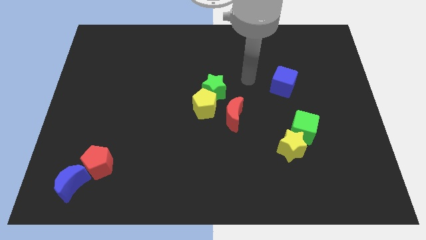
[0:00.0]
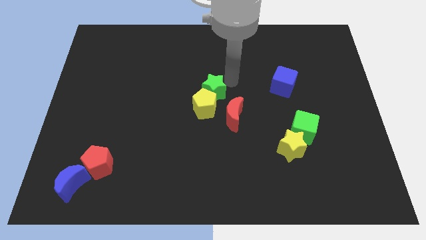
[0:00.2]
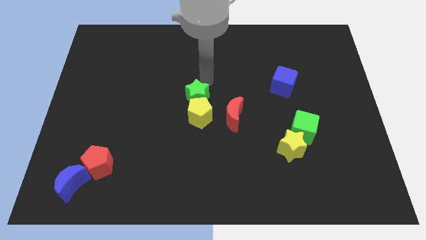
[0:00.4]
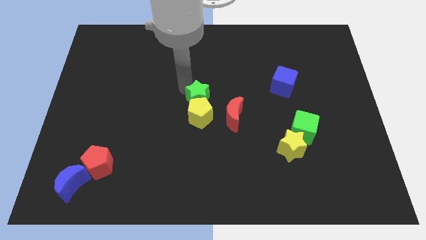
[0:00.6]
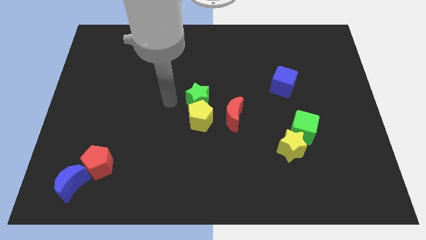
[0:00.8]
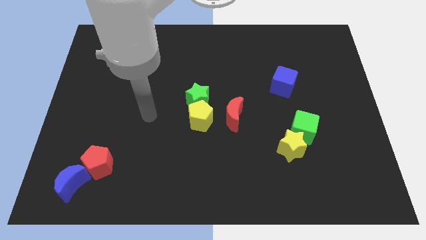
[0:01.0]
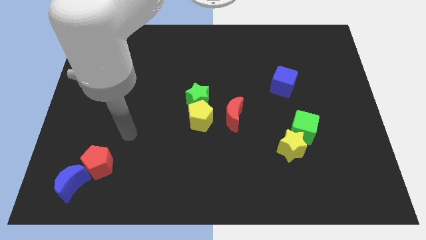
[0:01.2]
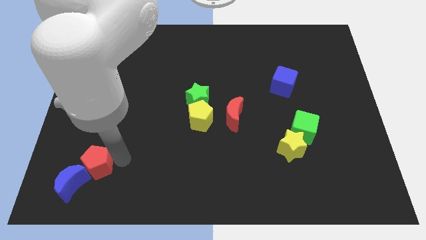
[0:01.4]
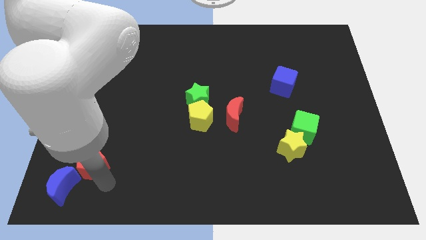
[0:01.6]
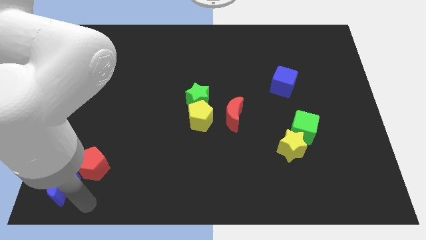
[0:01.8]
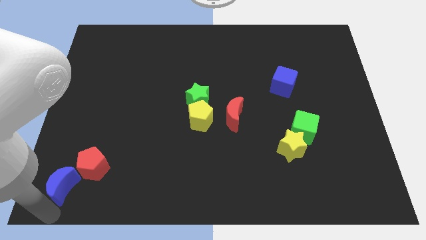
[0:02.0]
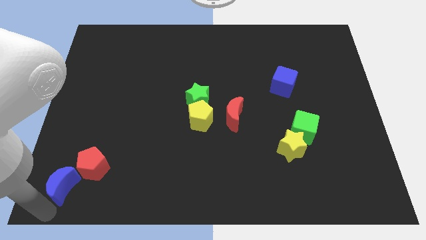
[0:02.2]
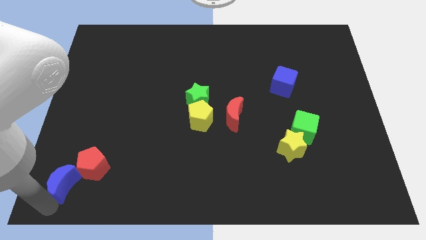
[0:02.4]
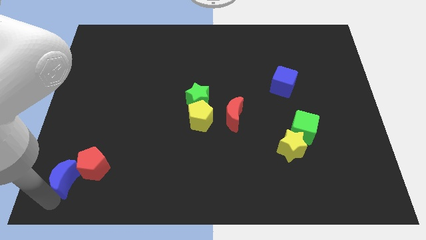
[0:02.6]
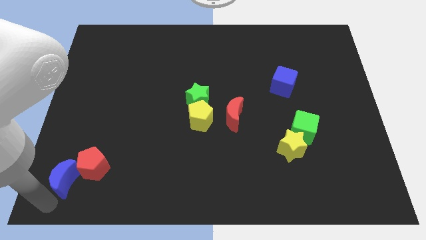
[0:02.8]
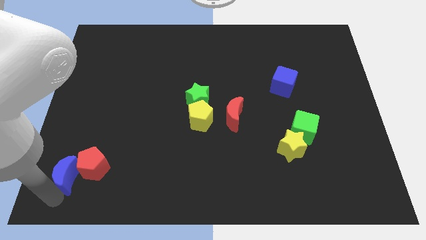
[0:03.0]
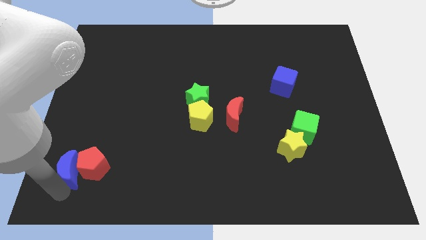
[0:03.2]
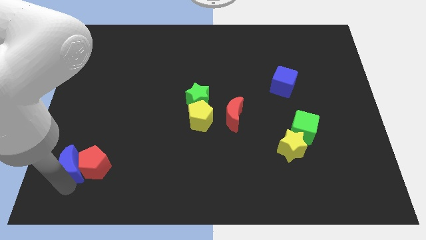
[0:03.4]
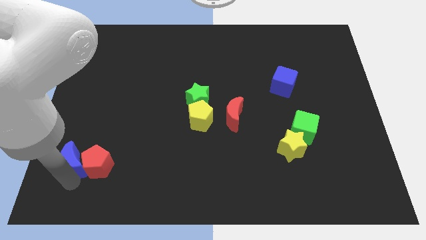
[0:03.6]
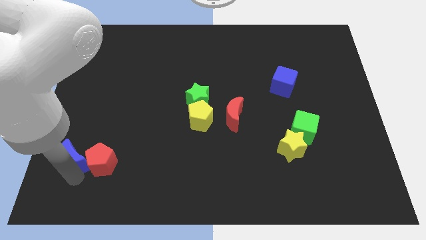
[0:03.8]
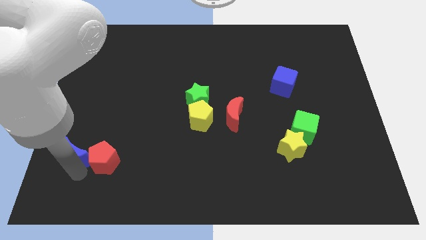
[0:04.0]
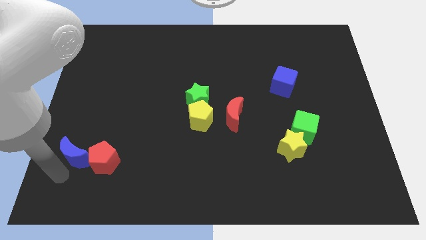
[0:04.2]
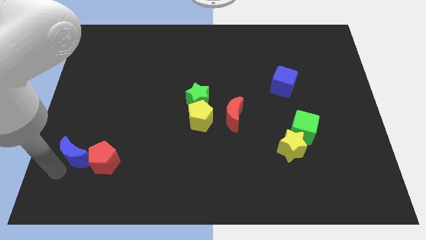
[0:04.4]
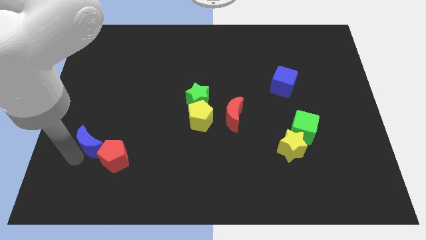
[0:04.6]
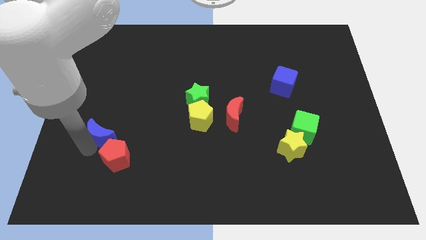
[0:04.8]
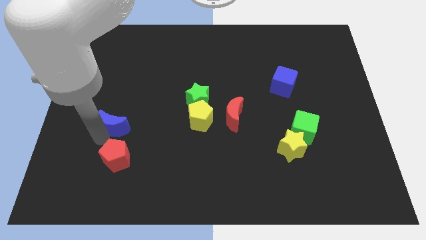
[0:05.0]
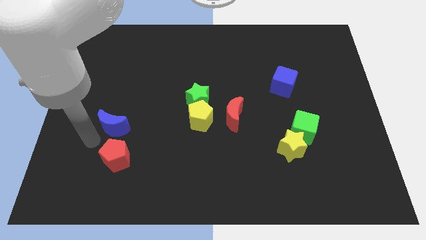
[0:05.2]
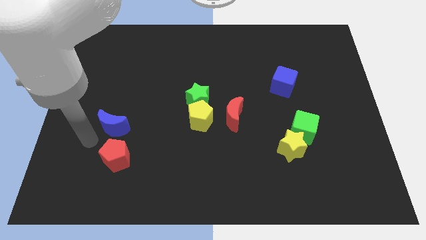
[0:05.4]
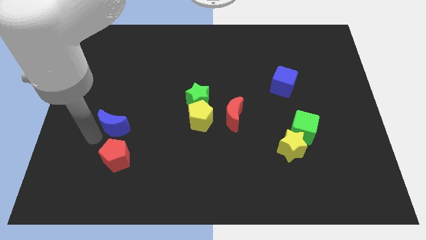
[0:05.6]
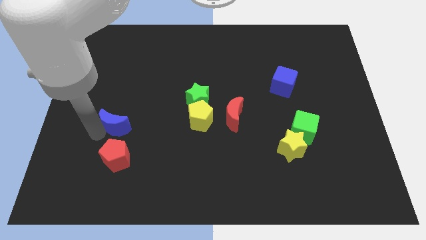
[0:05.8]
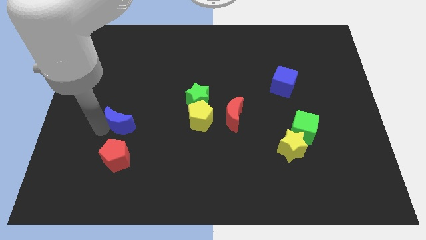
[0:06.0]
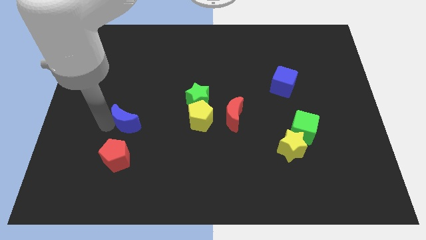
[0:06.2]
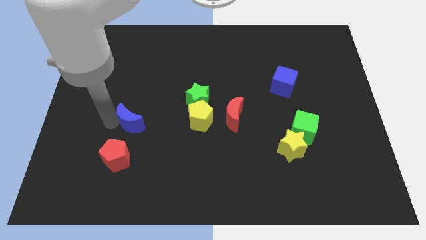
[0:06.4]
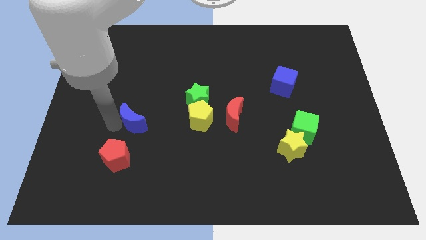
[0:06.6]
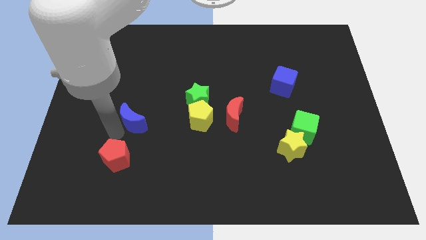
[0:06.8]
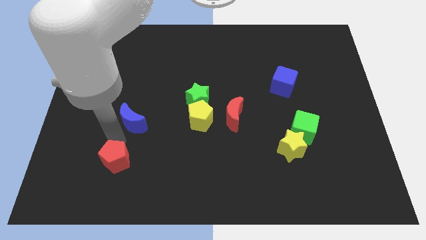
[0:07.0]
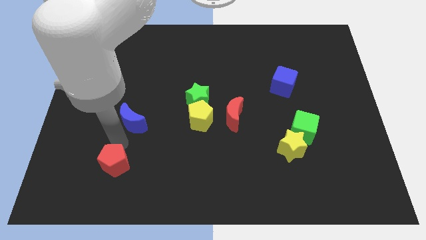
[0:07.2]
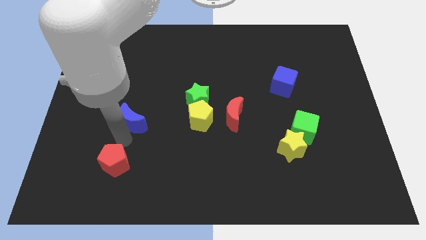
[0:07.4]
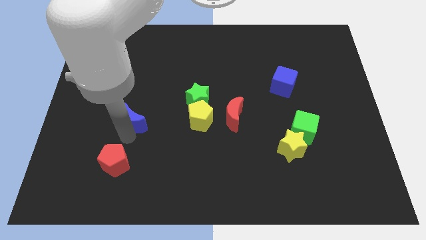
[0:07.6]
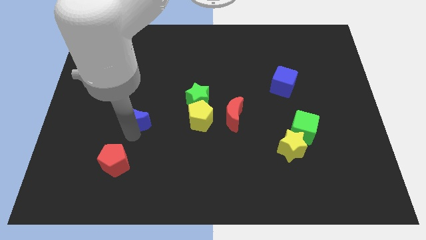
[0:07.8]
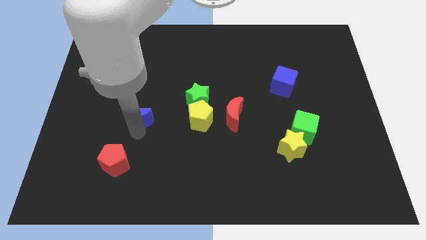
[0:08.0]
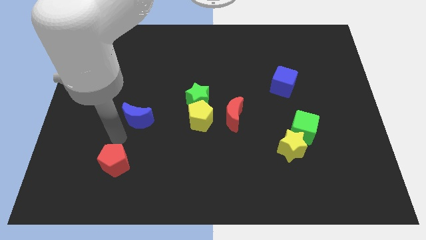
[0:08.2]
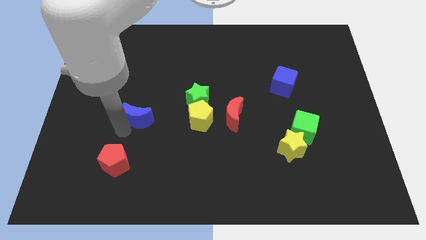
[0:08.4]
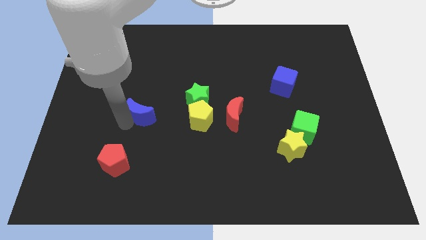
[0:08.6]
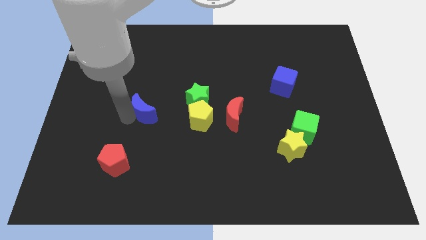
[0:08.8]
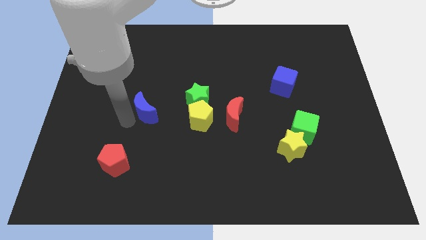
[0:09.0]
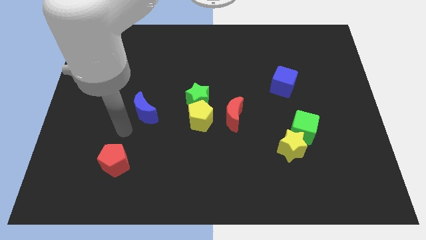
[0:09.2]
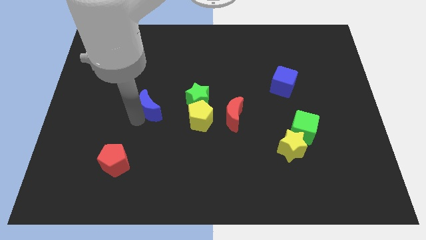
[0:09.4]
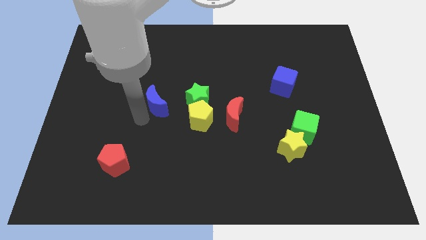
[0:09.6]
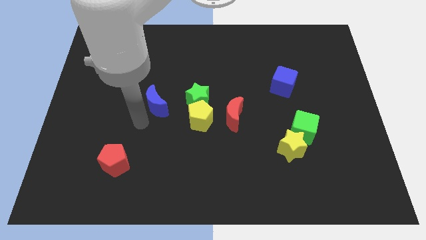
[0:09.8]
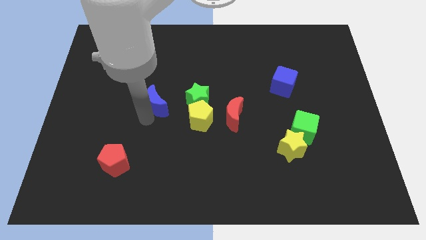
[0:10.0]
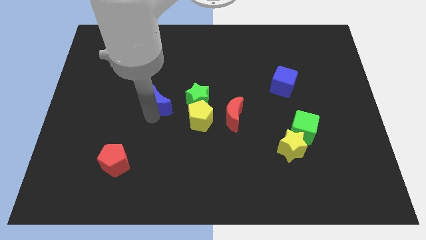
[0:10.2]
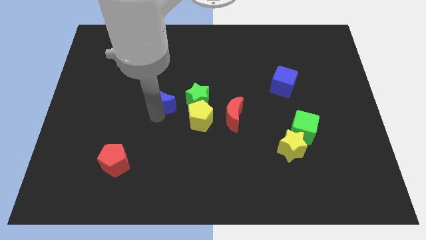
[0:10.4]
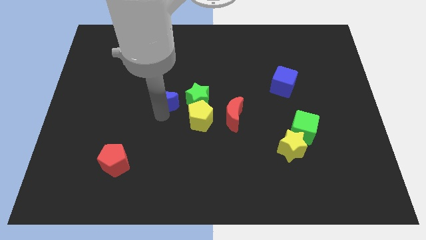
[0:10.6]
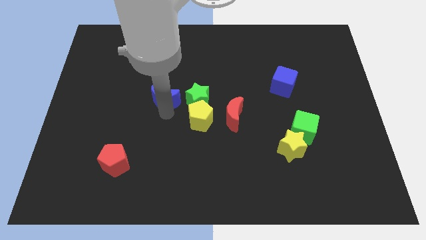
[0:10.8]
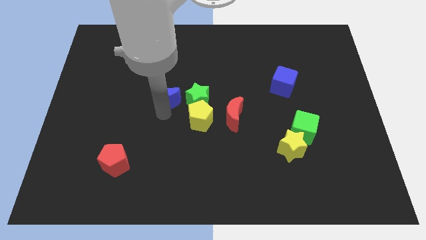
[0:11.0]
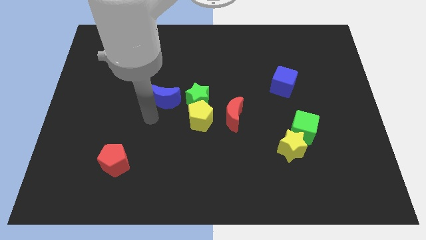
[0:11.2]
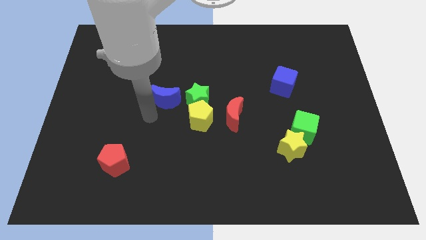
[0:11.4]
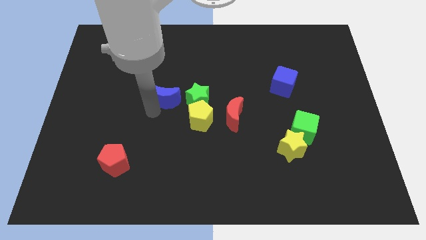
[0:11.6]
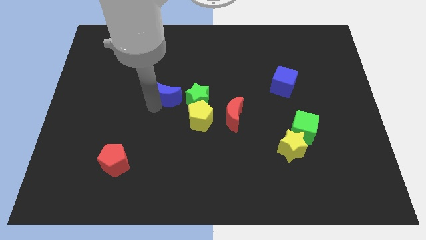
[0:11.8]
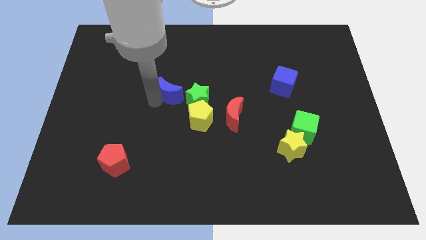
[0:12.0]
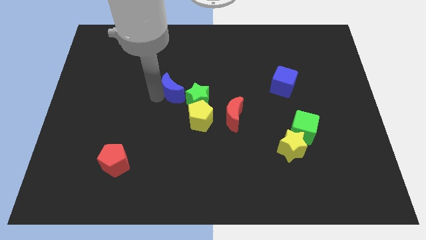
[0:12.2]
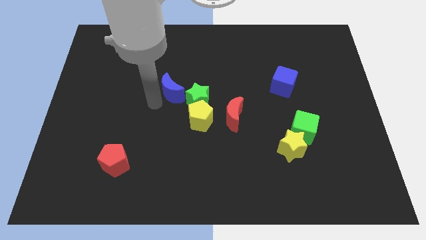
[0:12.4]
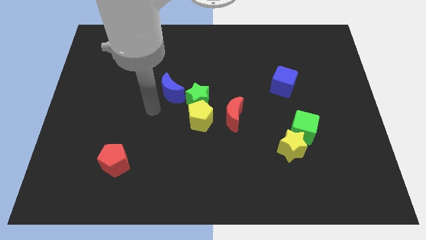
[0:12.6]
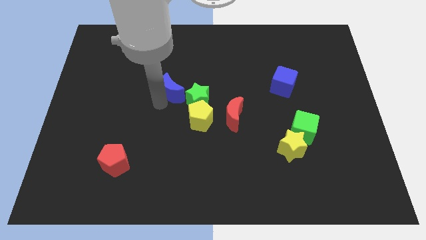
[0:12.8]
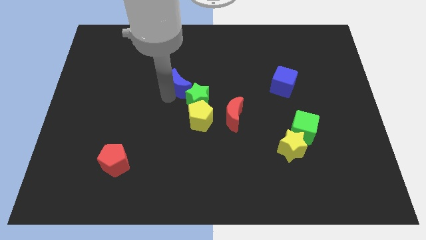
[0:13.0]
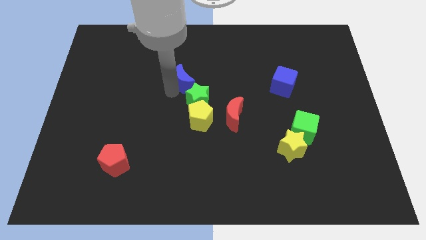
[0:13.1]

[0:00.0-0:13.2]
move the blue moon to the top side of the yellow pentagon

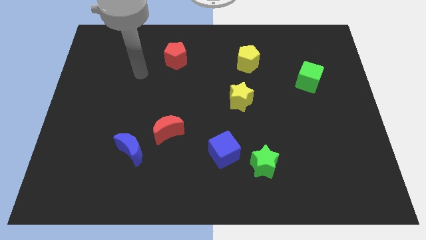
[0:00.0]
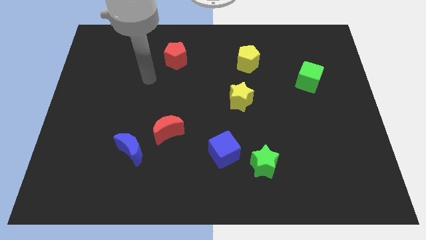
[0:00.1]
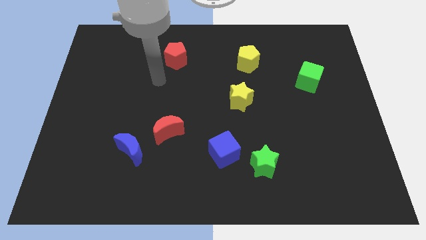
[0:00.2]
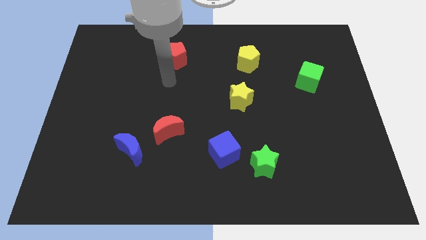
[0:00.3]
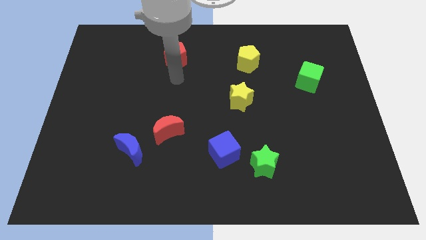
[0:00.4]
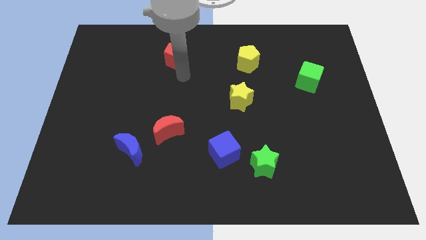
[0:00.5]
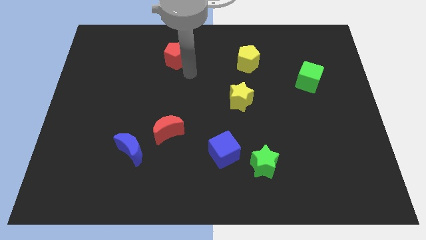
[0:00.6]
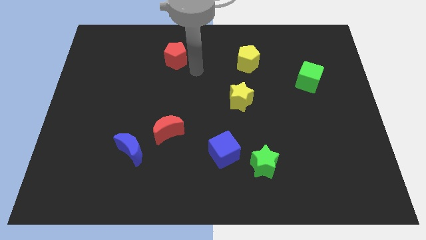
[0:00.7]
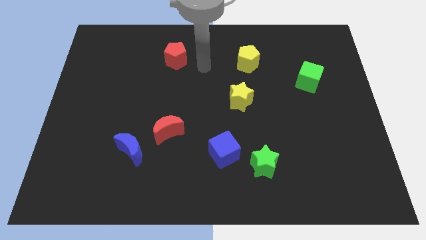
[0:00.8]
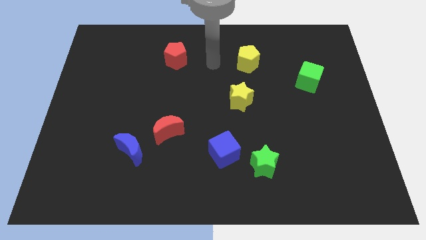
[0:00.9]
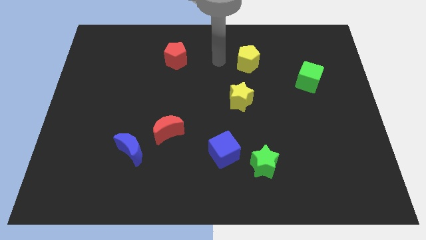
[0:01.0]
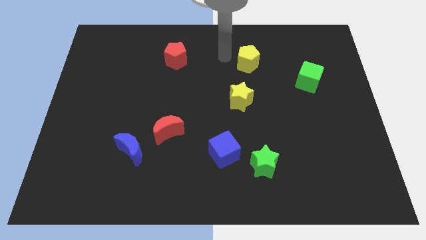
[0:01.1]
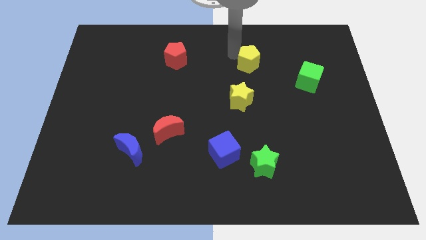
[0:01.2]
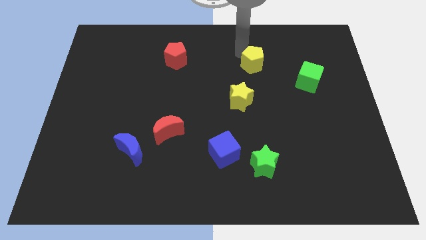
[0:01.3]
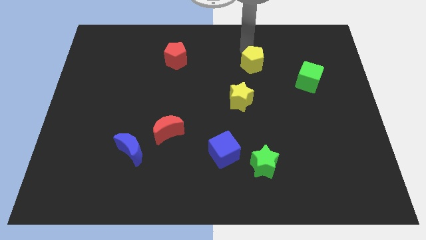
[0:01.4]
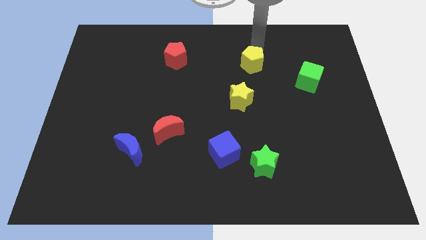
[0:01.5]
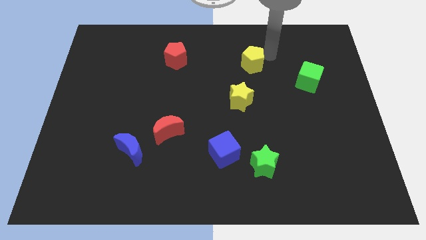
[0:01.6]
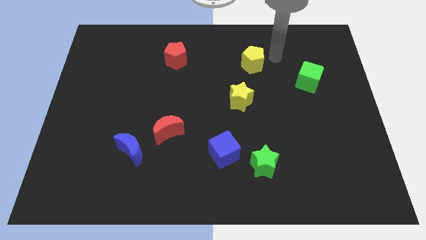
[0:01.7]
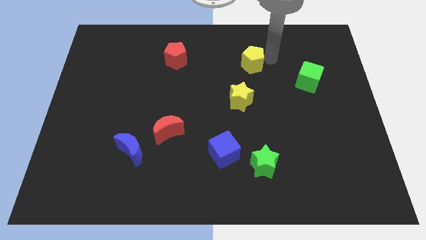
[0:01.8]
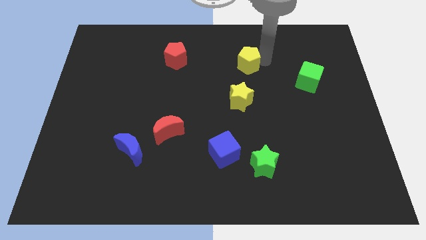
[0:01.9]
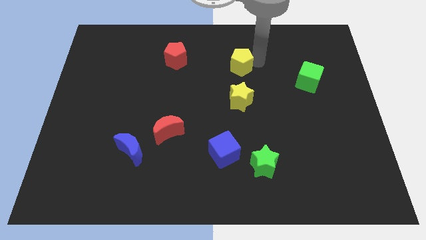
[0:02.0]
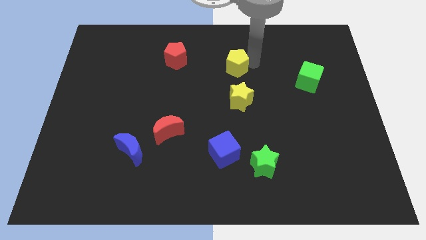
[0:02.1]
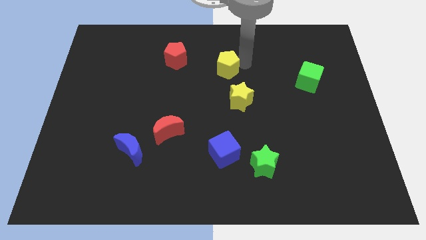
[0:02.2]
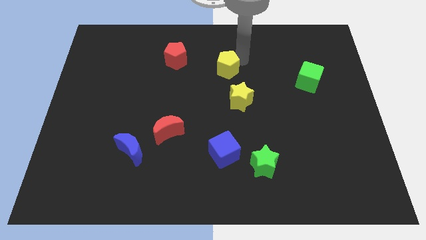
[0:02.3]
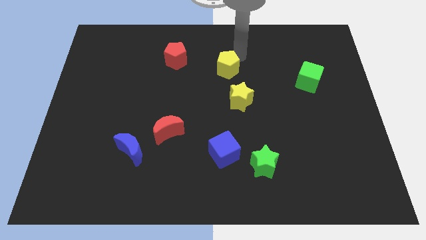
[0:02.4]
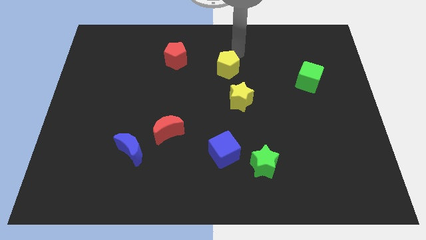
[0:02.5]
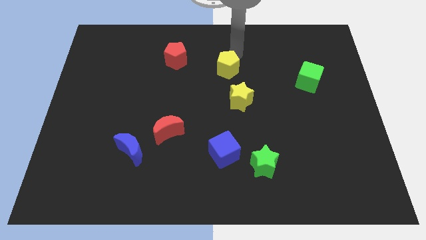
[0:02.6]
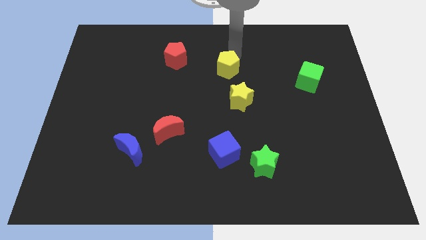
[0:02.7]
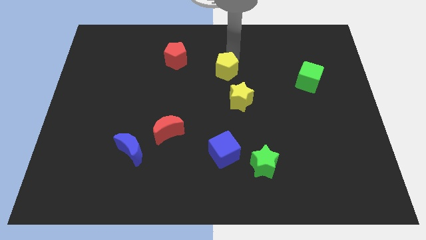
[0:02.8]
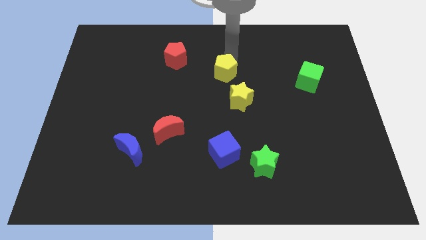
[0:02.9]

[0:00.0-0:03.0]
slide the yellow pentagon diagonally up and to the left of the yellow star
